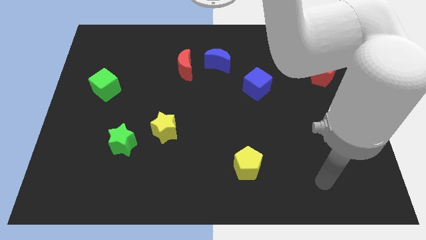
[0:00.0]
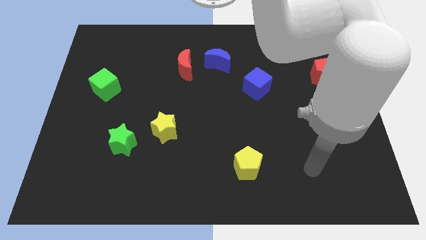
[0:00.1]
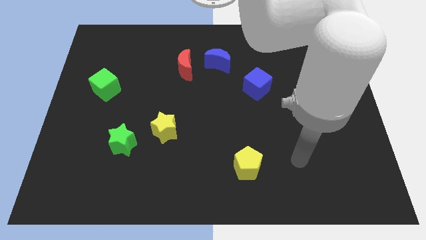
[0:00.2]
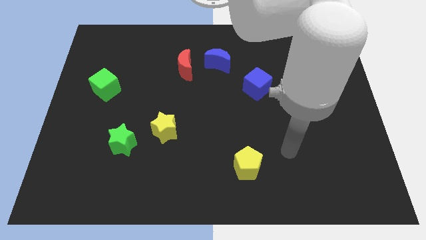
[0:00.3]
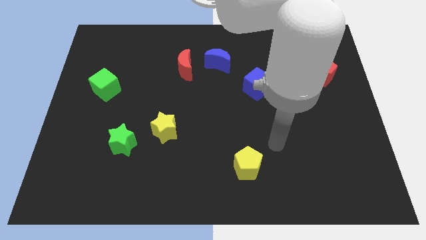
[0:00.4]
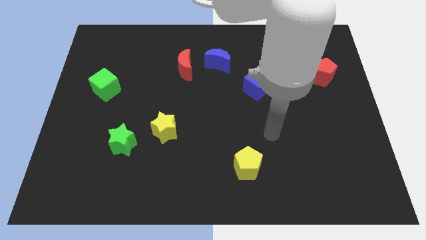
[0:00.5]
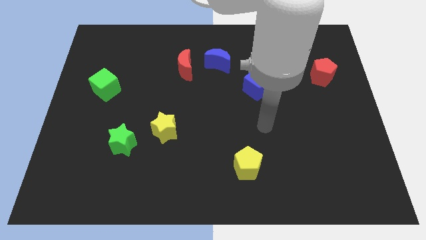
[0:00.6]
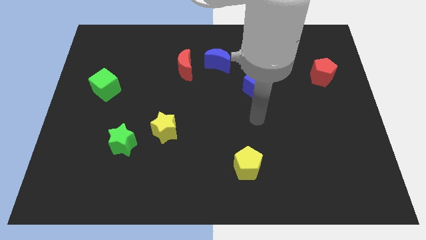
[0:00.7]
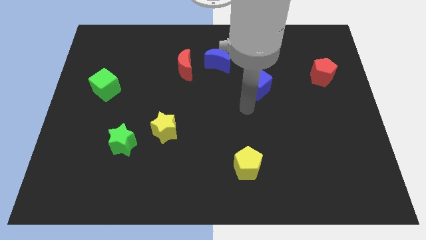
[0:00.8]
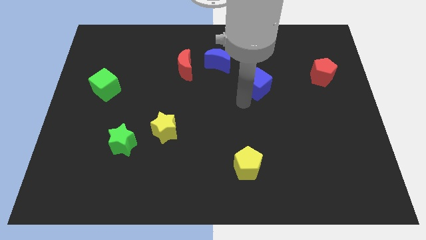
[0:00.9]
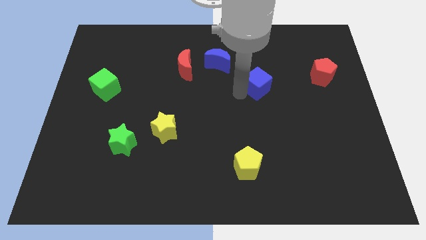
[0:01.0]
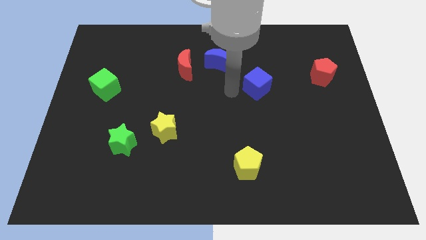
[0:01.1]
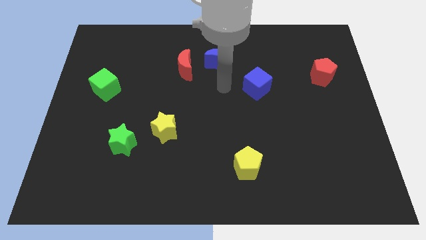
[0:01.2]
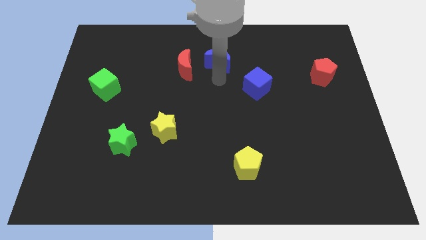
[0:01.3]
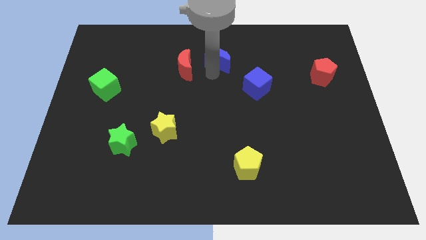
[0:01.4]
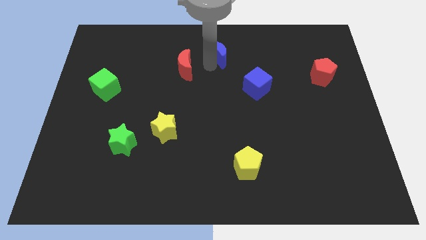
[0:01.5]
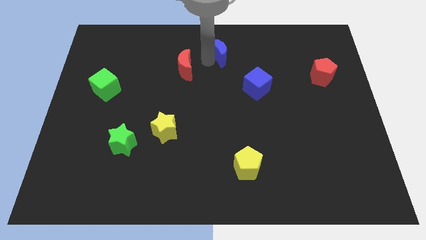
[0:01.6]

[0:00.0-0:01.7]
move the red moon away from the blue moon

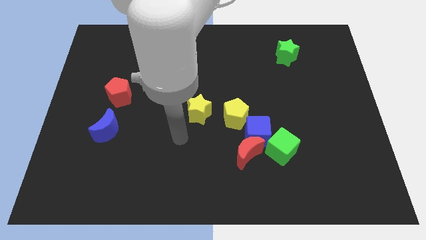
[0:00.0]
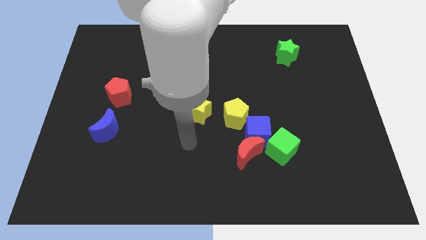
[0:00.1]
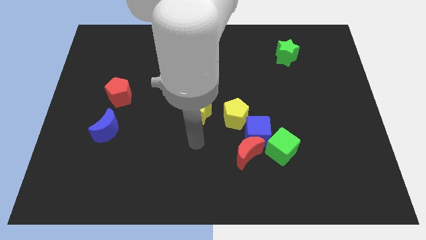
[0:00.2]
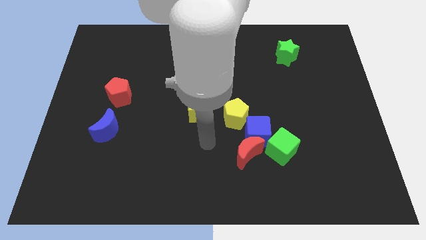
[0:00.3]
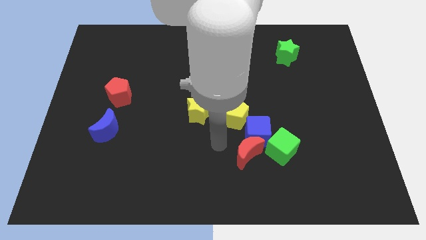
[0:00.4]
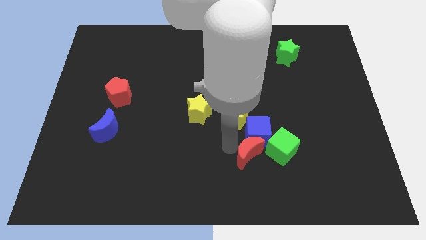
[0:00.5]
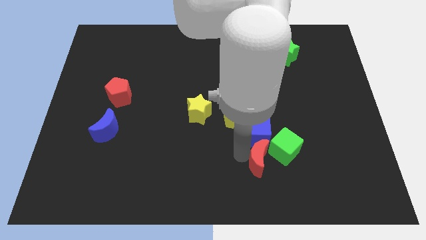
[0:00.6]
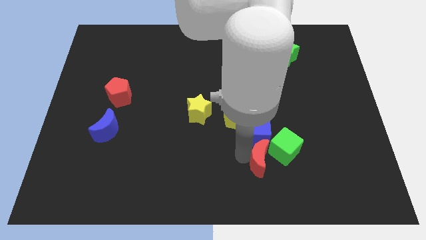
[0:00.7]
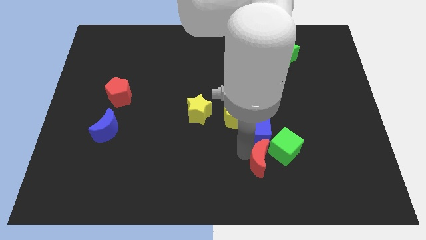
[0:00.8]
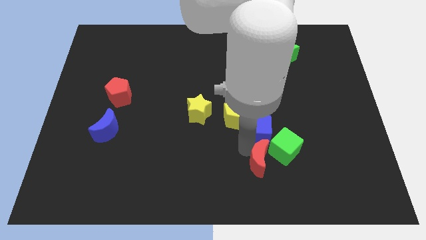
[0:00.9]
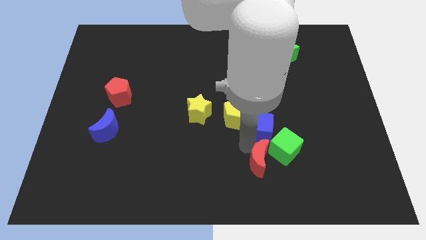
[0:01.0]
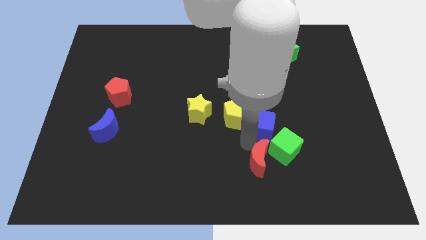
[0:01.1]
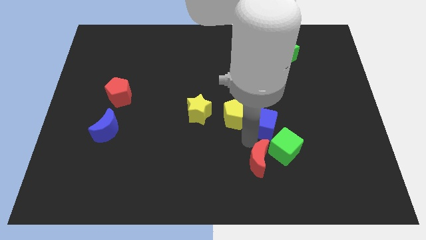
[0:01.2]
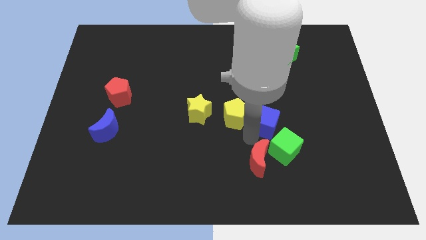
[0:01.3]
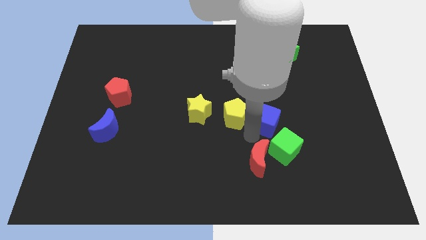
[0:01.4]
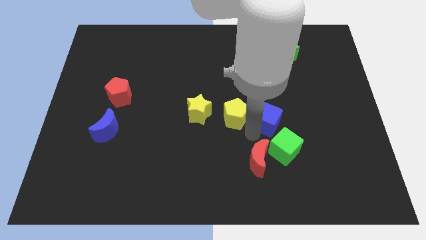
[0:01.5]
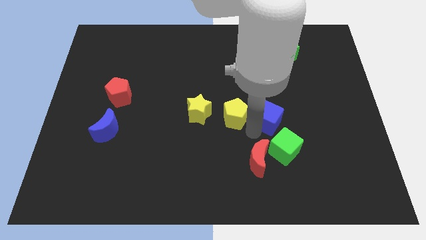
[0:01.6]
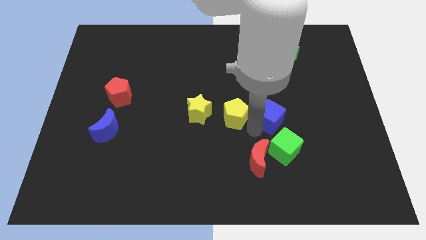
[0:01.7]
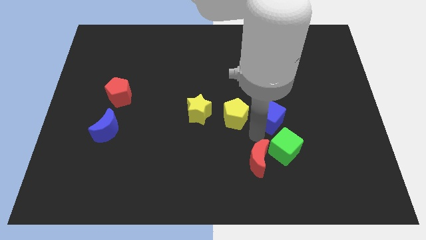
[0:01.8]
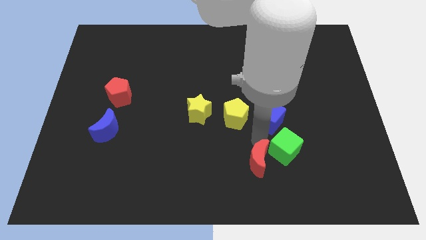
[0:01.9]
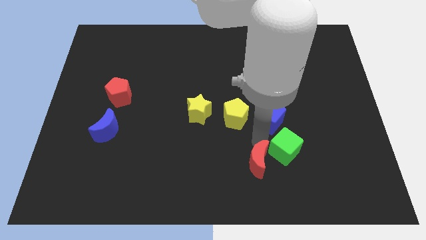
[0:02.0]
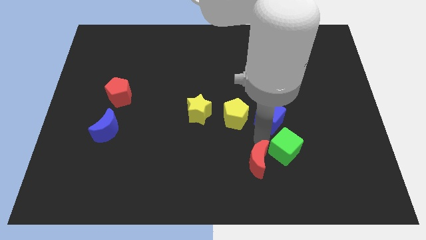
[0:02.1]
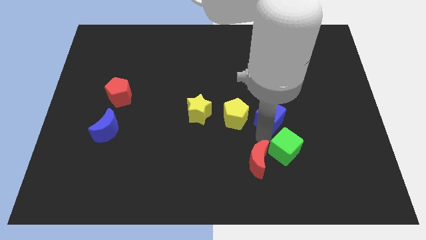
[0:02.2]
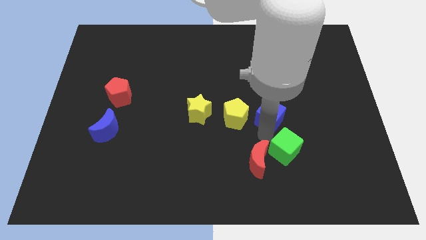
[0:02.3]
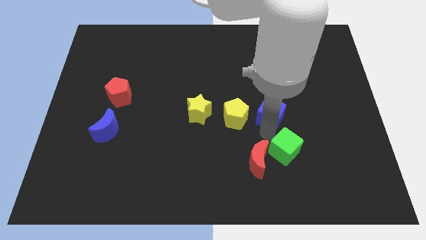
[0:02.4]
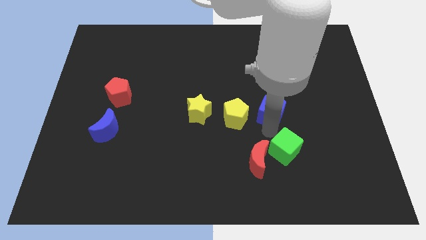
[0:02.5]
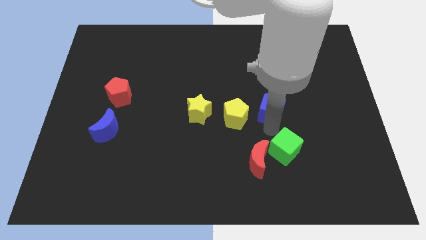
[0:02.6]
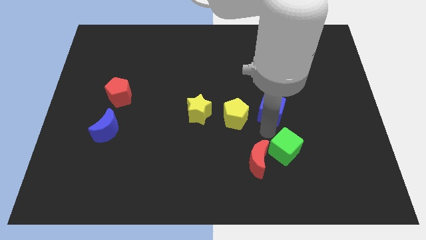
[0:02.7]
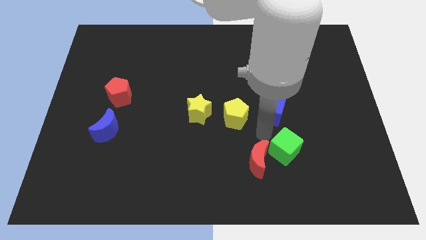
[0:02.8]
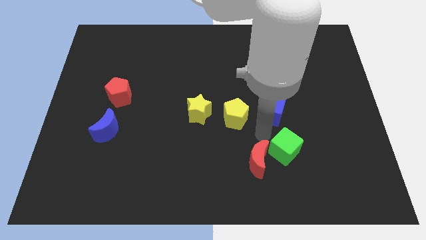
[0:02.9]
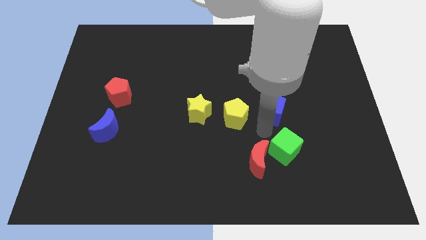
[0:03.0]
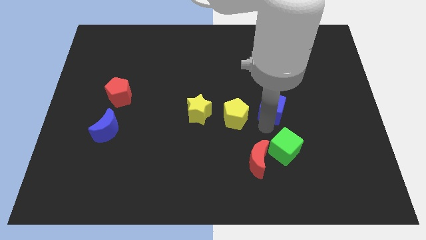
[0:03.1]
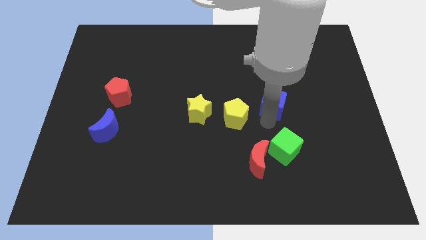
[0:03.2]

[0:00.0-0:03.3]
separate the blue cube from the clump

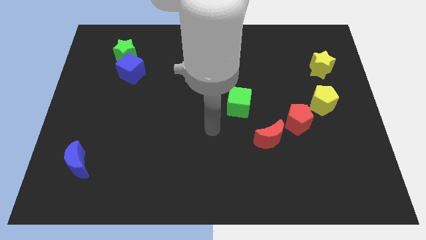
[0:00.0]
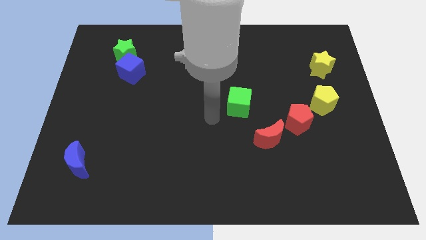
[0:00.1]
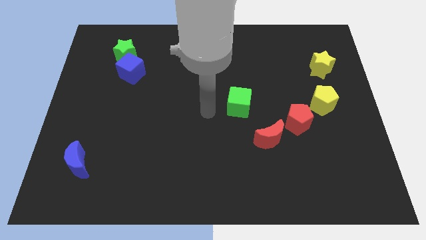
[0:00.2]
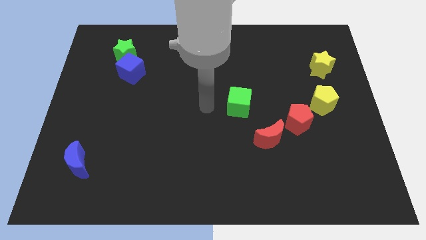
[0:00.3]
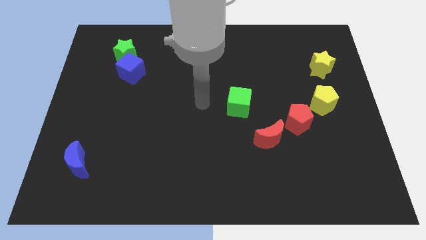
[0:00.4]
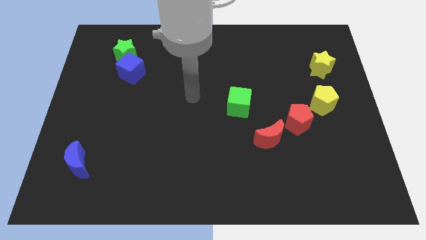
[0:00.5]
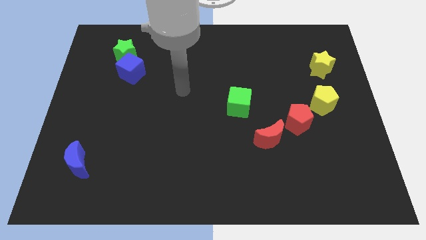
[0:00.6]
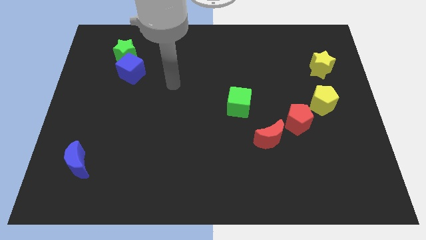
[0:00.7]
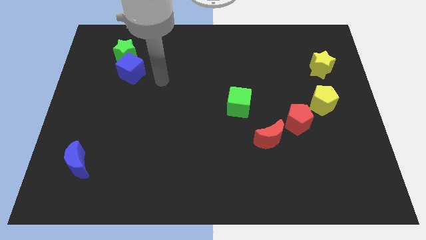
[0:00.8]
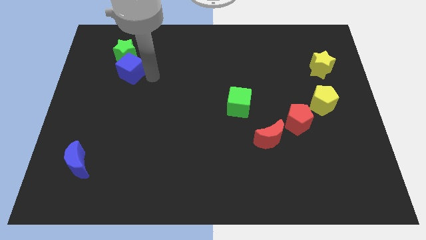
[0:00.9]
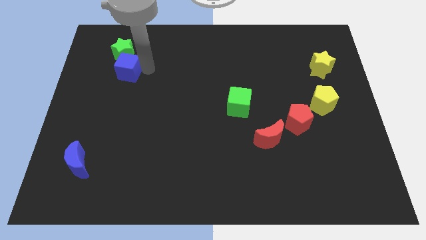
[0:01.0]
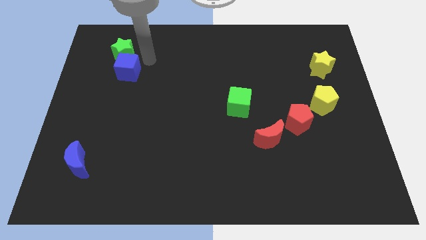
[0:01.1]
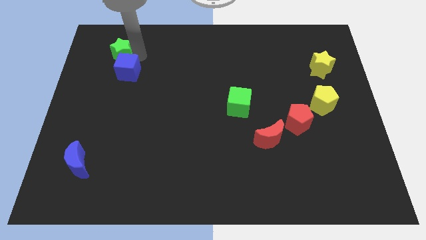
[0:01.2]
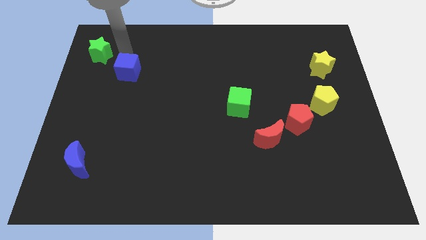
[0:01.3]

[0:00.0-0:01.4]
pull the blue cube apart from the green star

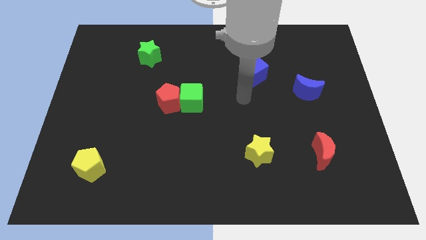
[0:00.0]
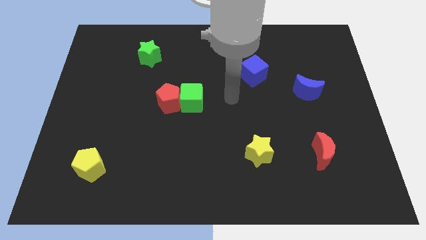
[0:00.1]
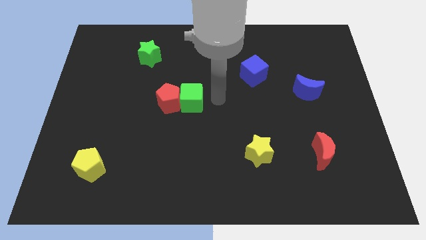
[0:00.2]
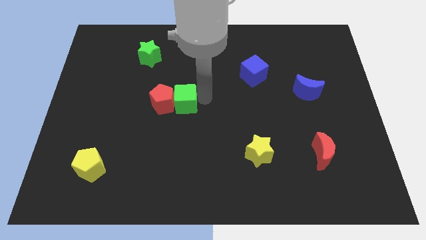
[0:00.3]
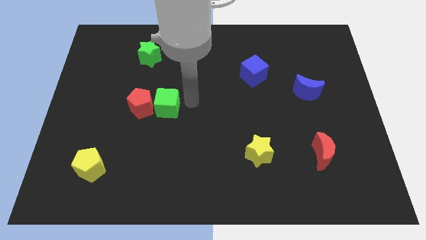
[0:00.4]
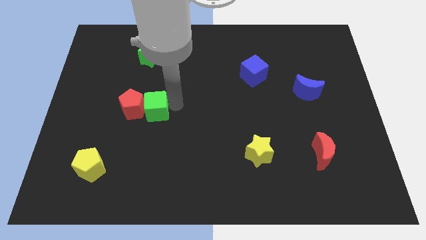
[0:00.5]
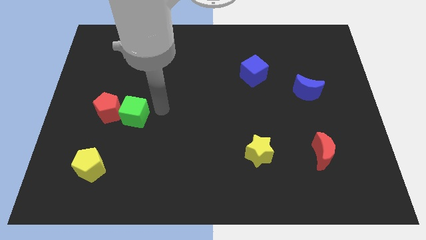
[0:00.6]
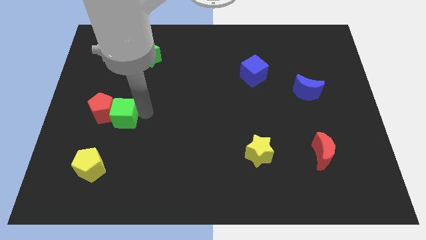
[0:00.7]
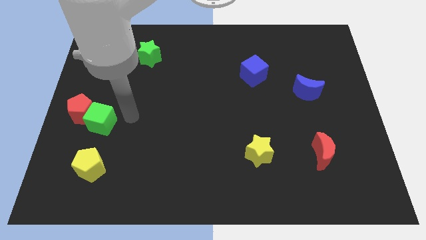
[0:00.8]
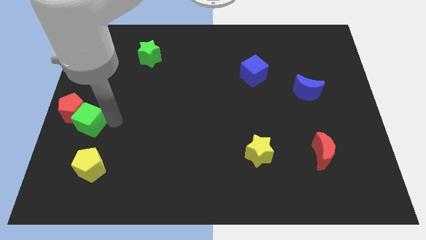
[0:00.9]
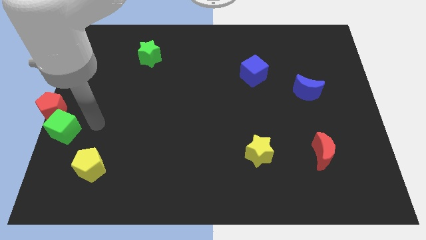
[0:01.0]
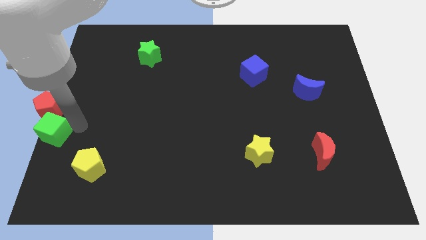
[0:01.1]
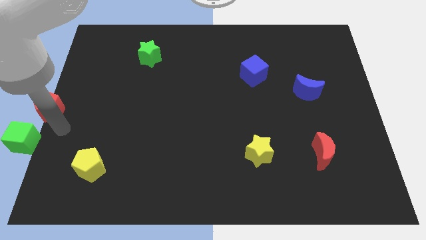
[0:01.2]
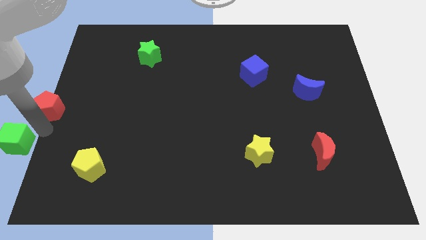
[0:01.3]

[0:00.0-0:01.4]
separate the red pentagon from the green cube

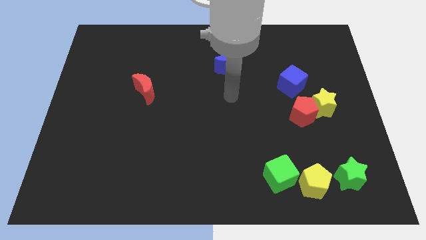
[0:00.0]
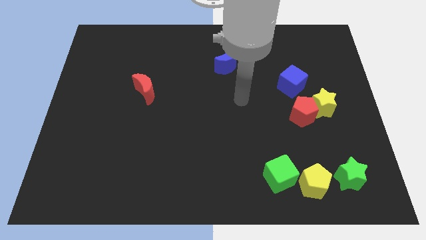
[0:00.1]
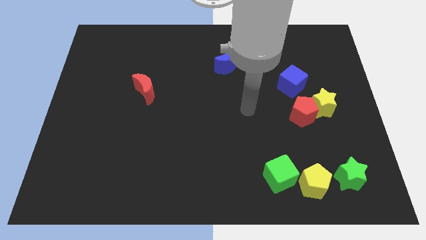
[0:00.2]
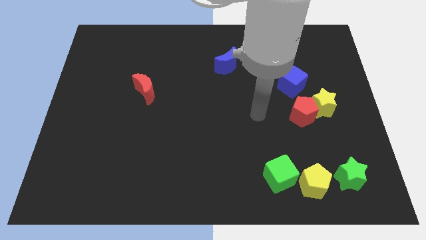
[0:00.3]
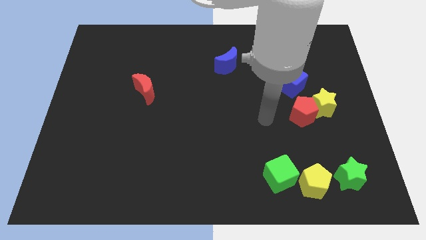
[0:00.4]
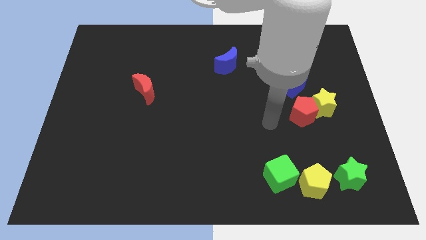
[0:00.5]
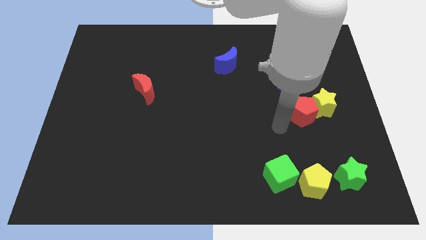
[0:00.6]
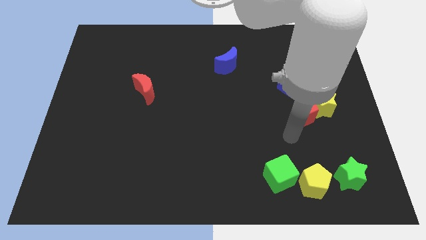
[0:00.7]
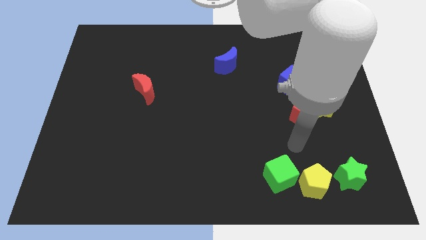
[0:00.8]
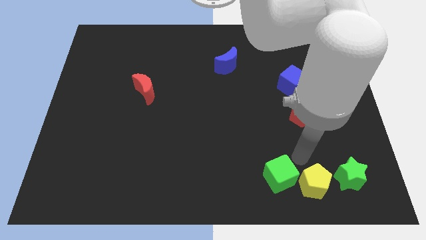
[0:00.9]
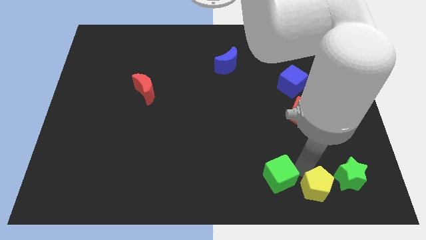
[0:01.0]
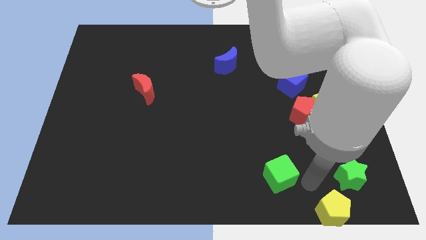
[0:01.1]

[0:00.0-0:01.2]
separate the green cube from the yellow pentagon

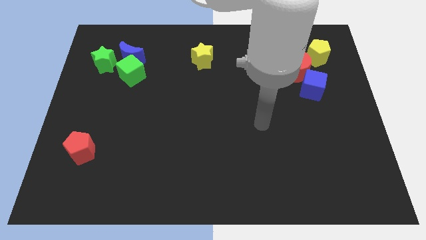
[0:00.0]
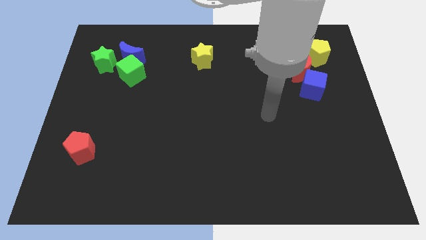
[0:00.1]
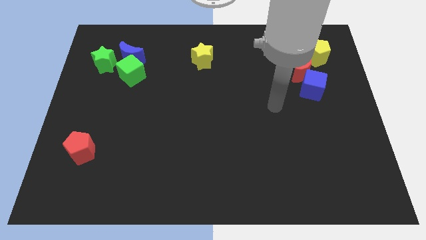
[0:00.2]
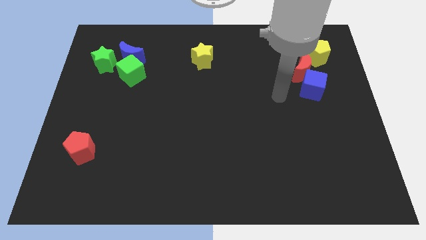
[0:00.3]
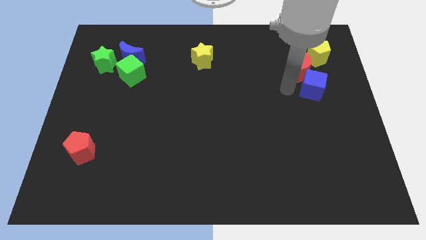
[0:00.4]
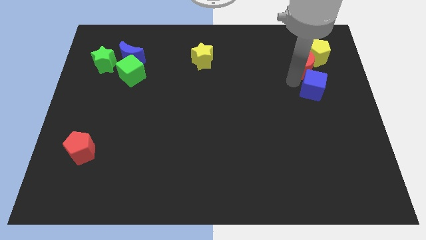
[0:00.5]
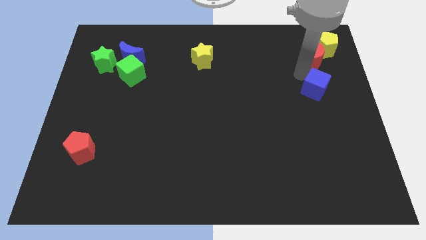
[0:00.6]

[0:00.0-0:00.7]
separate the blue cube from the red moon
